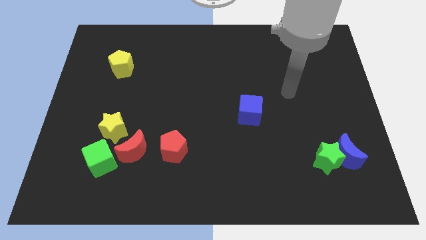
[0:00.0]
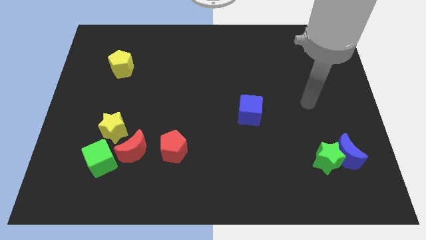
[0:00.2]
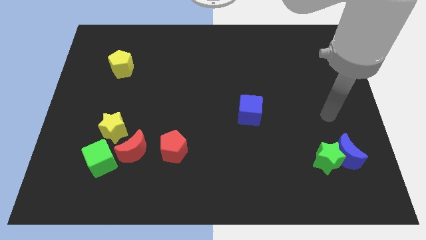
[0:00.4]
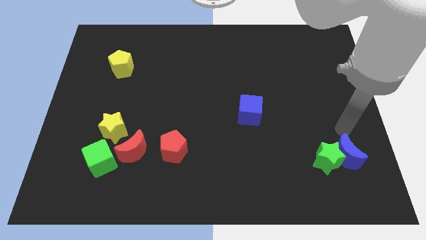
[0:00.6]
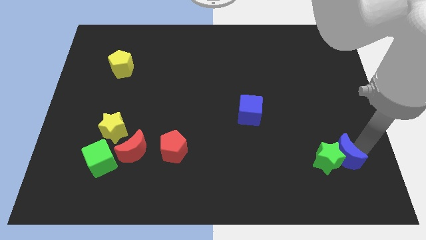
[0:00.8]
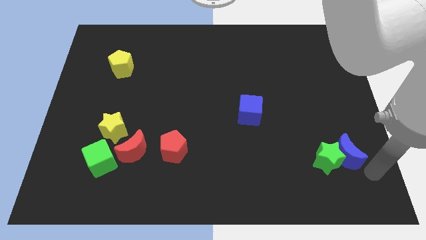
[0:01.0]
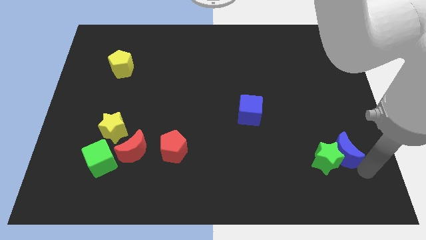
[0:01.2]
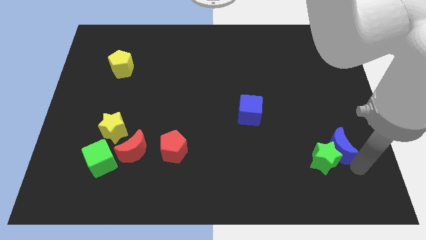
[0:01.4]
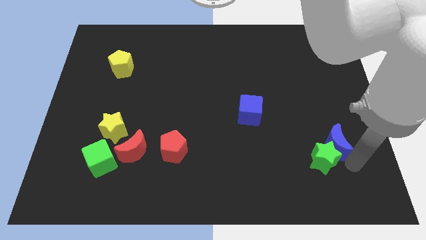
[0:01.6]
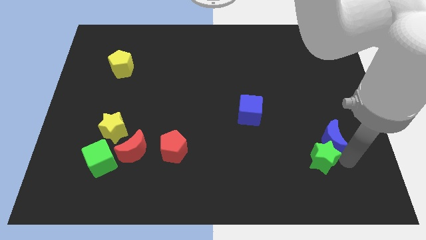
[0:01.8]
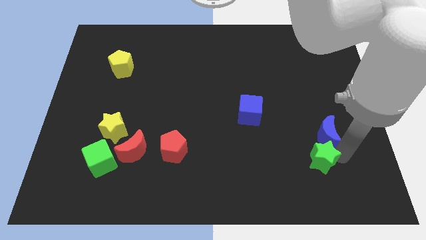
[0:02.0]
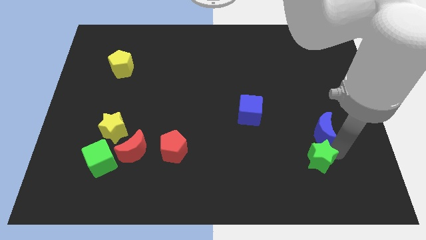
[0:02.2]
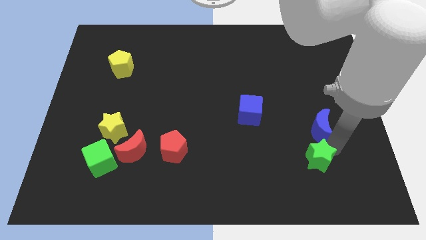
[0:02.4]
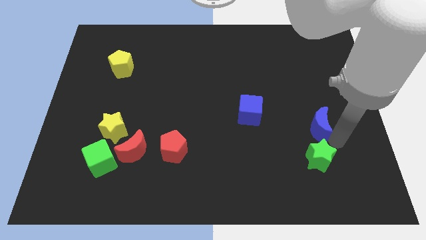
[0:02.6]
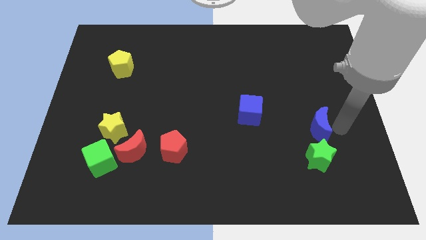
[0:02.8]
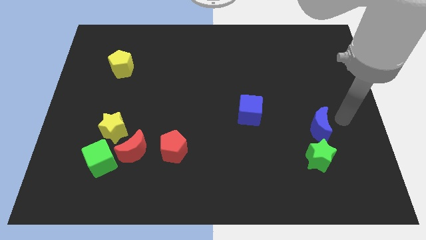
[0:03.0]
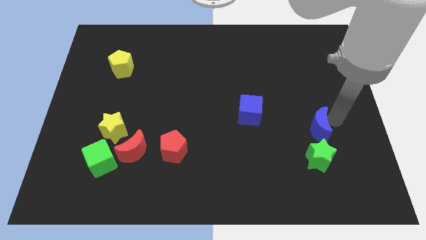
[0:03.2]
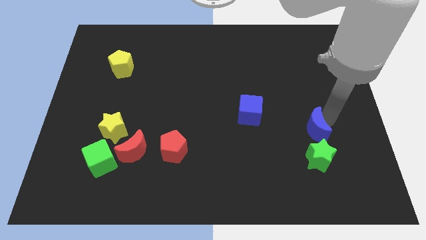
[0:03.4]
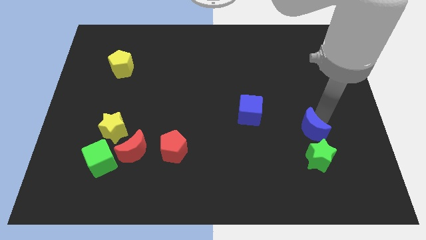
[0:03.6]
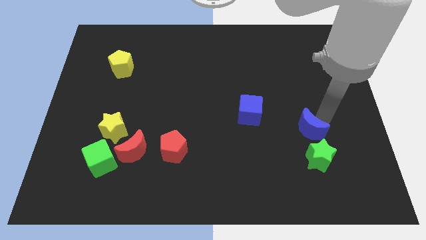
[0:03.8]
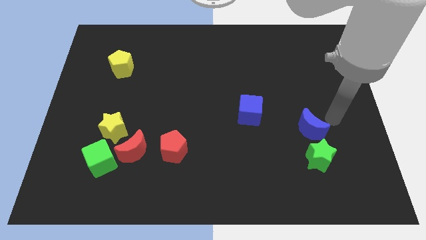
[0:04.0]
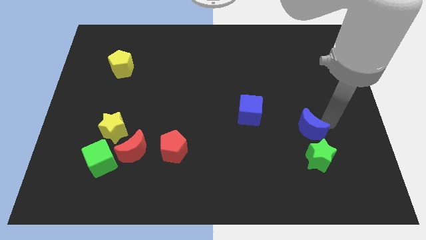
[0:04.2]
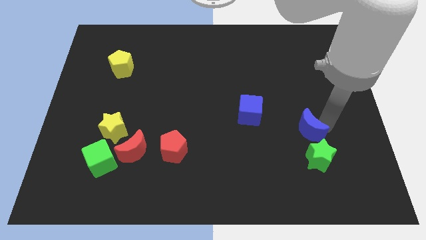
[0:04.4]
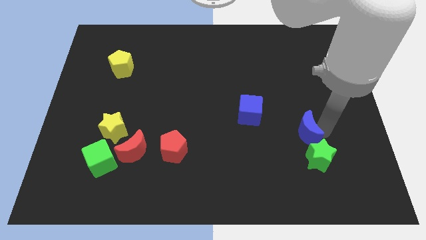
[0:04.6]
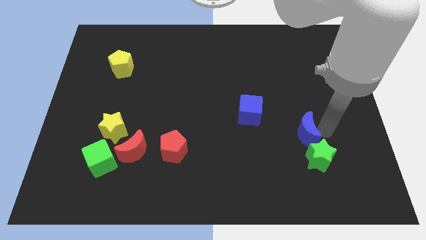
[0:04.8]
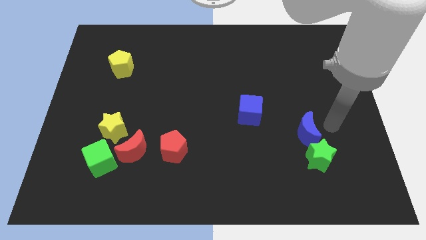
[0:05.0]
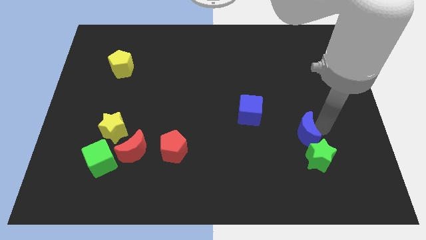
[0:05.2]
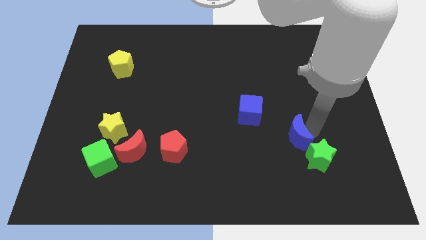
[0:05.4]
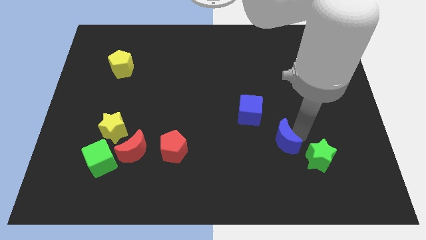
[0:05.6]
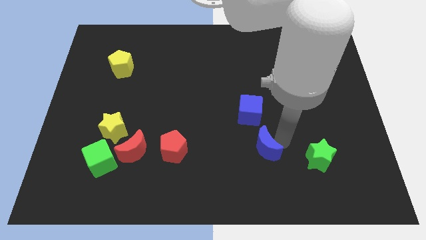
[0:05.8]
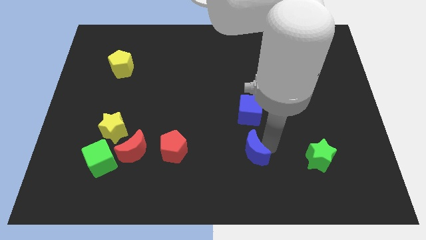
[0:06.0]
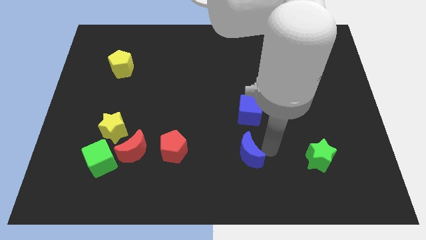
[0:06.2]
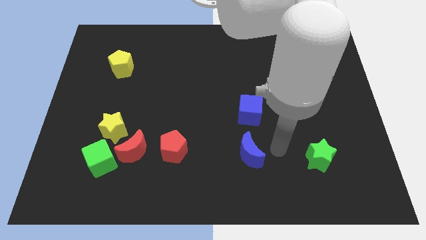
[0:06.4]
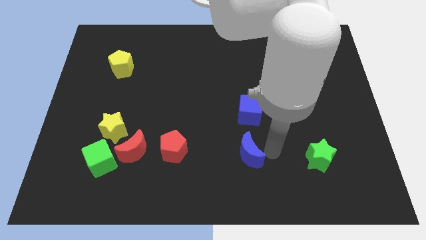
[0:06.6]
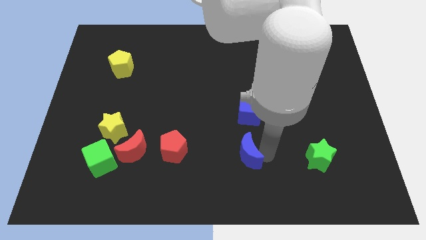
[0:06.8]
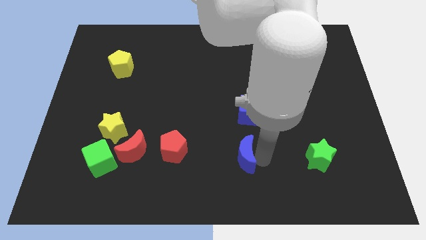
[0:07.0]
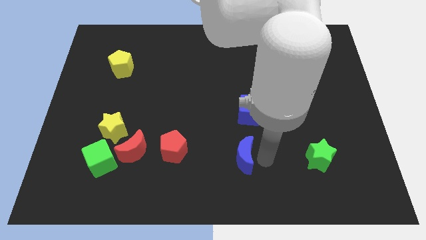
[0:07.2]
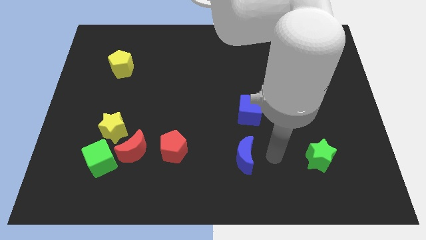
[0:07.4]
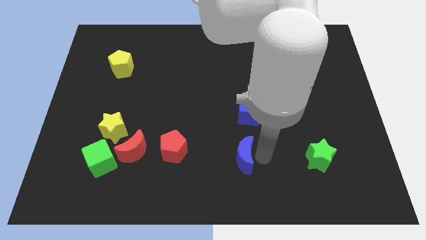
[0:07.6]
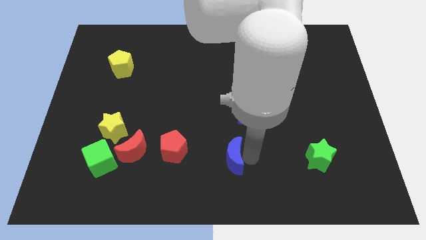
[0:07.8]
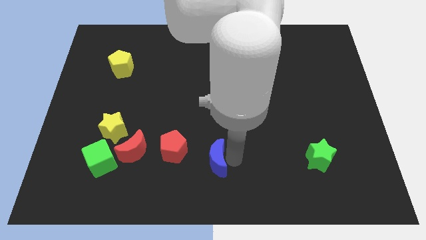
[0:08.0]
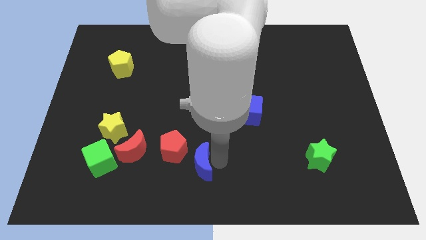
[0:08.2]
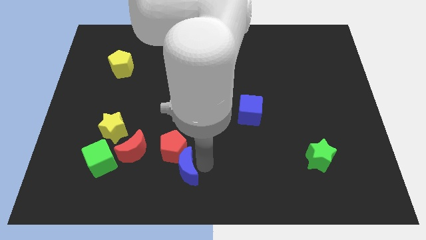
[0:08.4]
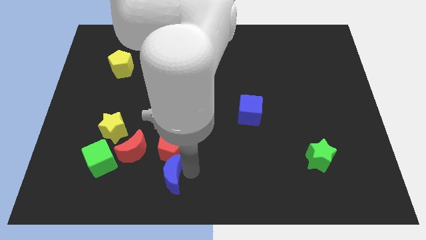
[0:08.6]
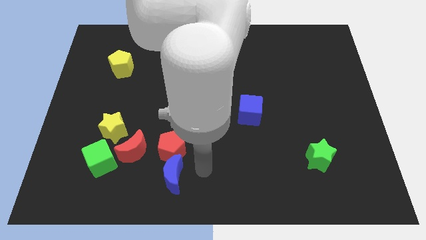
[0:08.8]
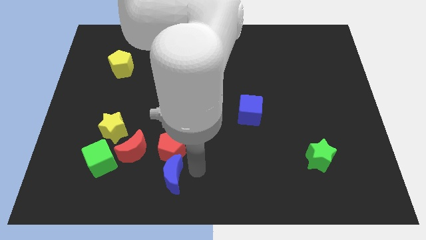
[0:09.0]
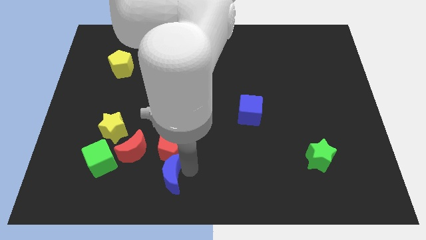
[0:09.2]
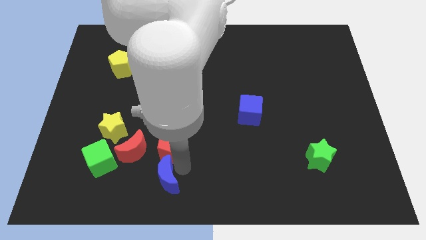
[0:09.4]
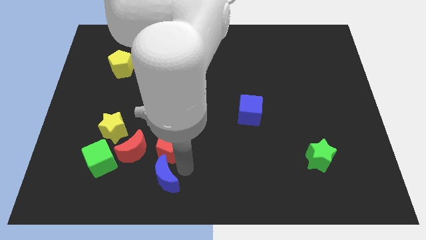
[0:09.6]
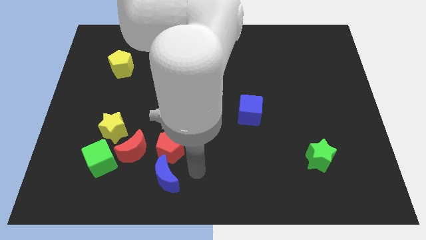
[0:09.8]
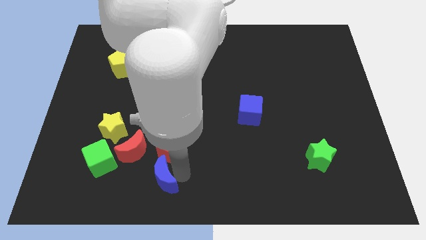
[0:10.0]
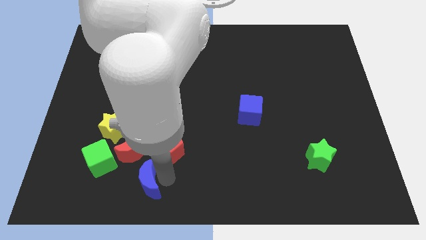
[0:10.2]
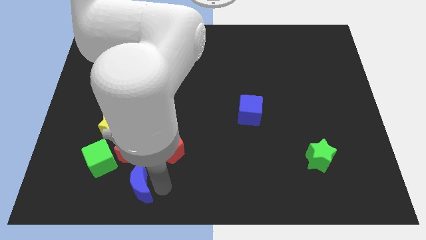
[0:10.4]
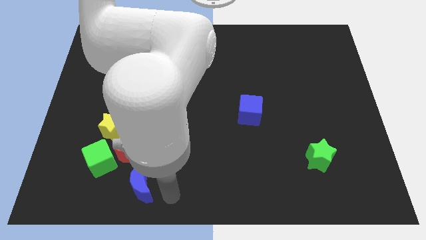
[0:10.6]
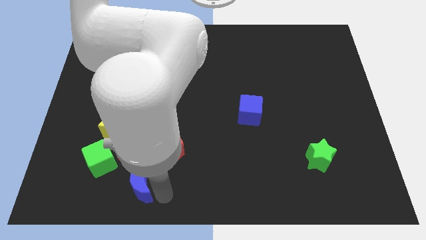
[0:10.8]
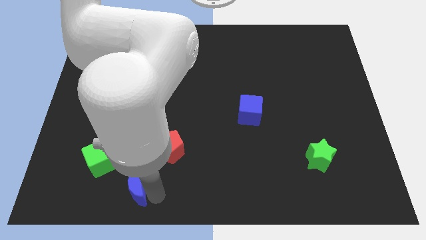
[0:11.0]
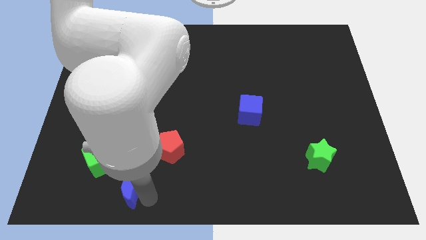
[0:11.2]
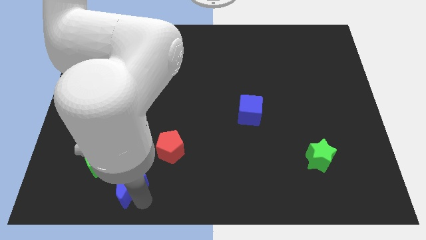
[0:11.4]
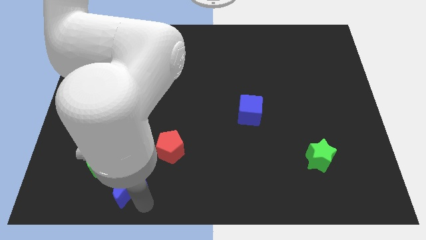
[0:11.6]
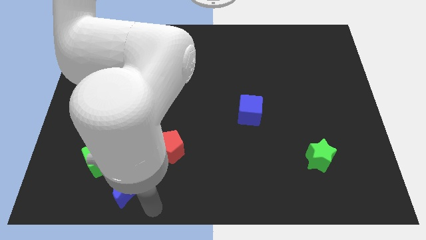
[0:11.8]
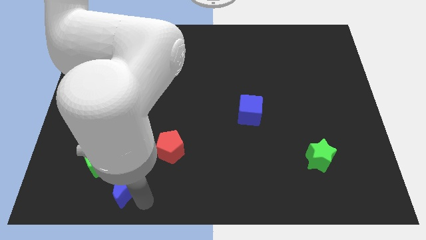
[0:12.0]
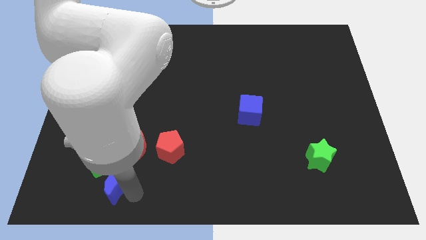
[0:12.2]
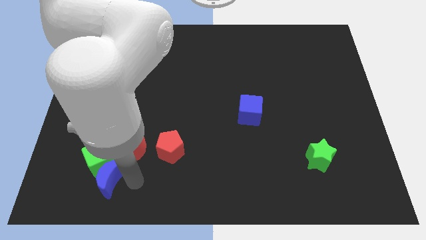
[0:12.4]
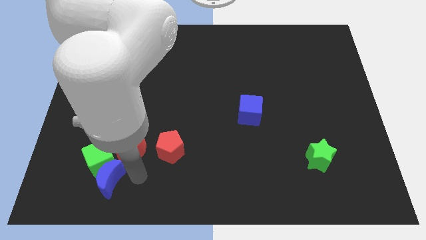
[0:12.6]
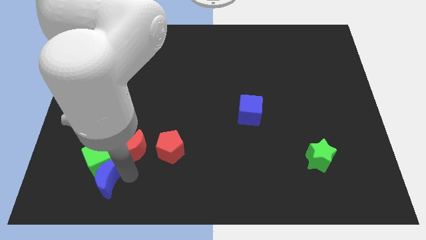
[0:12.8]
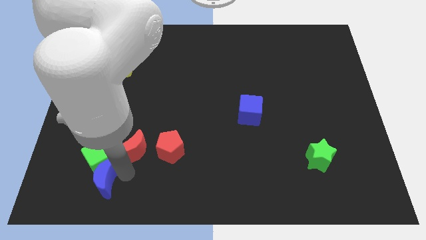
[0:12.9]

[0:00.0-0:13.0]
put the blue moon to the bottom left side of the green cube

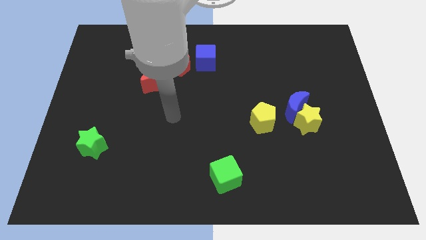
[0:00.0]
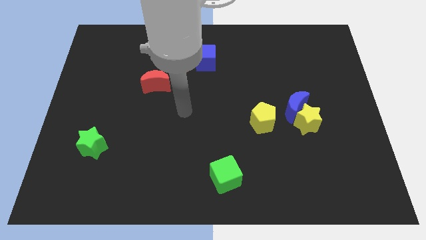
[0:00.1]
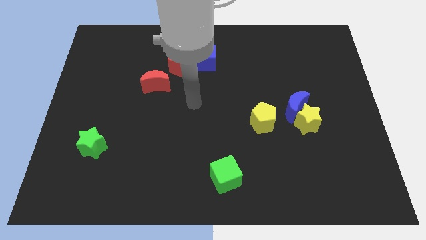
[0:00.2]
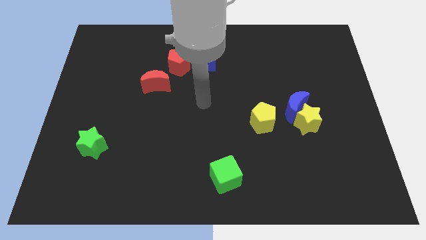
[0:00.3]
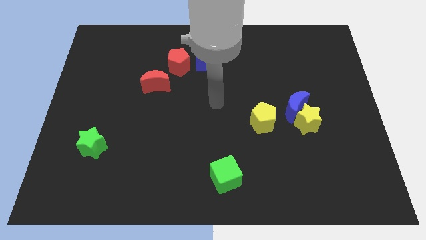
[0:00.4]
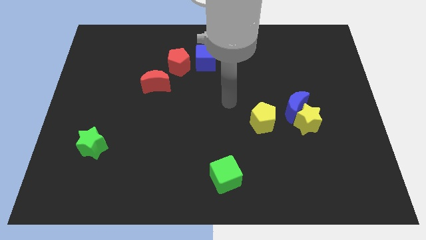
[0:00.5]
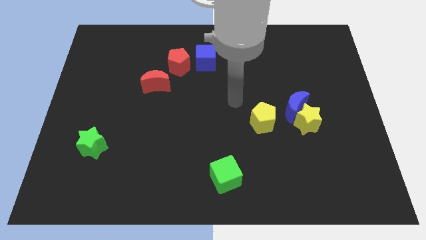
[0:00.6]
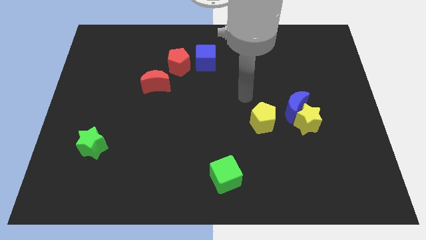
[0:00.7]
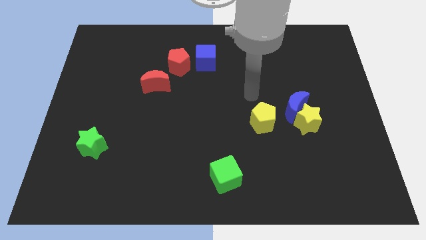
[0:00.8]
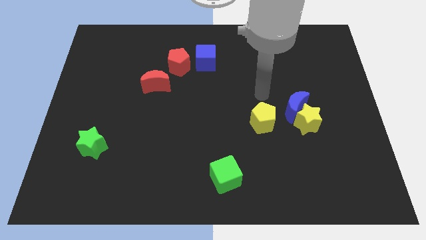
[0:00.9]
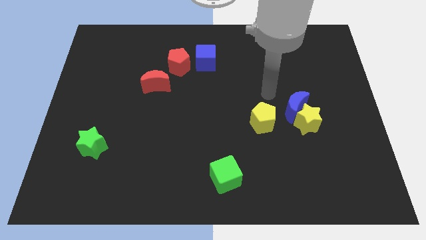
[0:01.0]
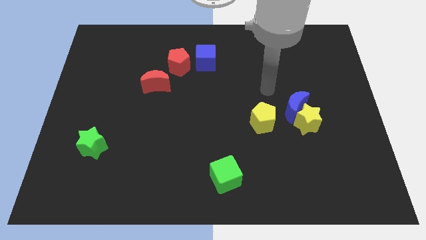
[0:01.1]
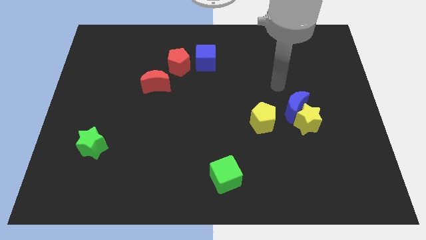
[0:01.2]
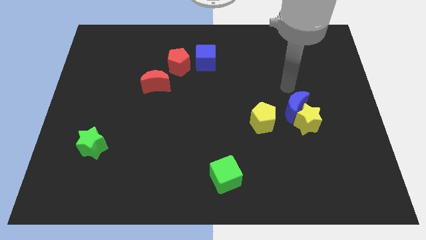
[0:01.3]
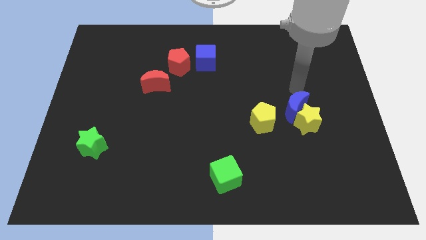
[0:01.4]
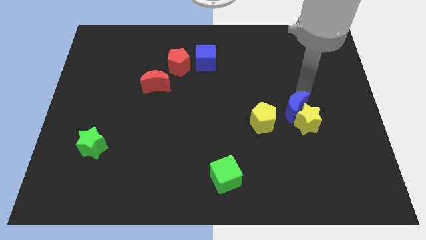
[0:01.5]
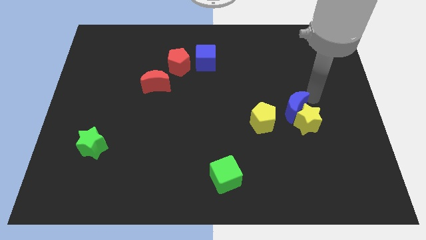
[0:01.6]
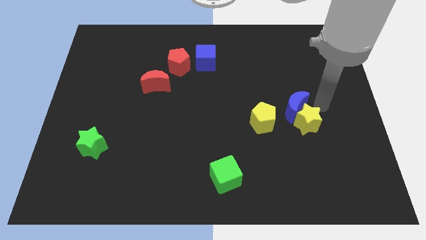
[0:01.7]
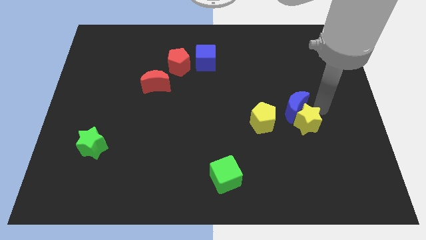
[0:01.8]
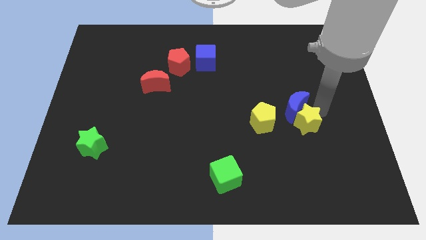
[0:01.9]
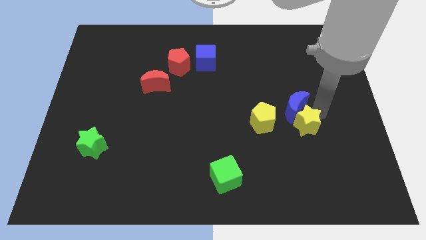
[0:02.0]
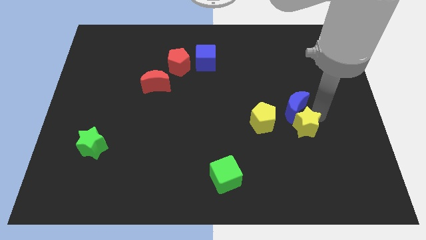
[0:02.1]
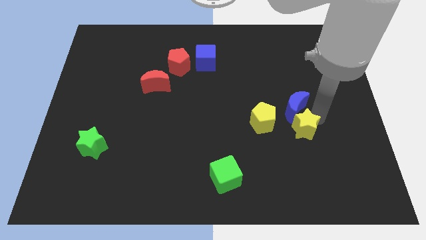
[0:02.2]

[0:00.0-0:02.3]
slide the yellow star to the bottom right of the yellow pentagon
